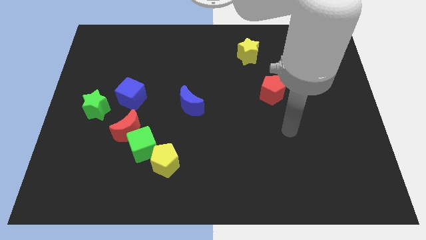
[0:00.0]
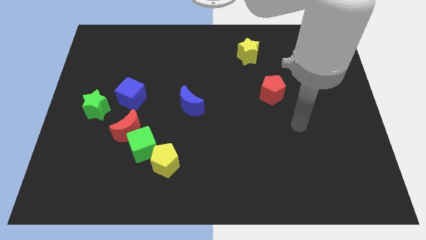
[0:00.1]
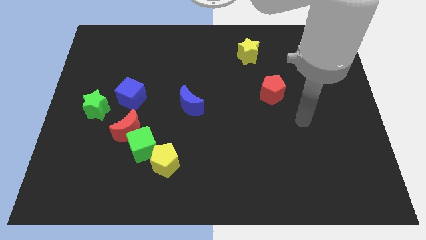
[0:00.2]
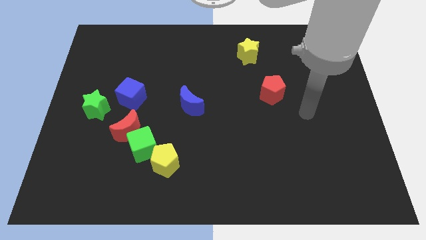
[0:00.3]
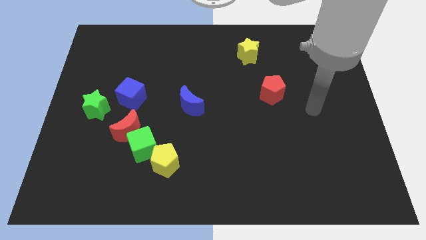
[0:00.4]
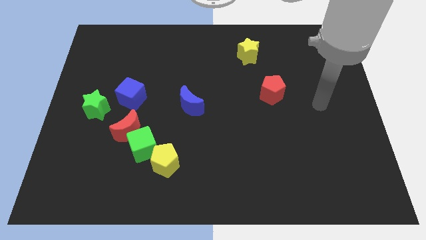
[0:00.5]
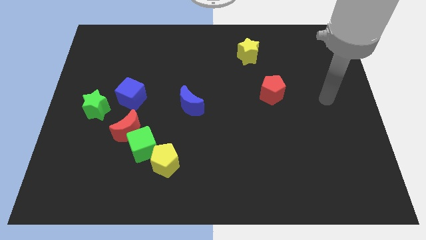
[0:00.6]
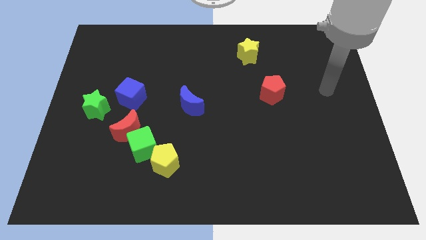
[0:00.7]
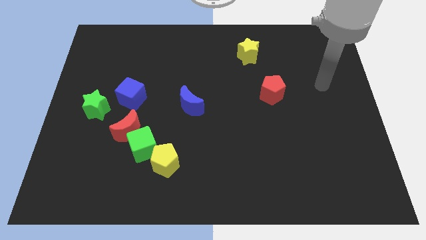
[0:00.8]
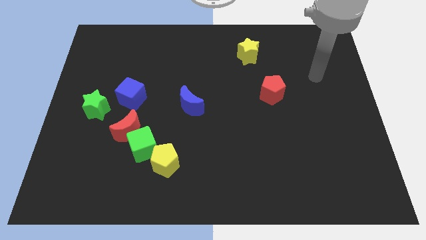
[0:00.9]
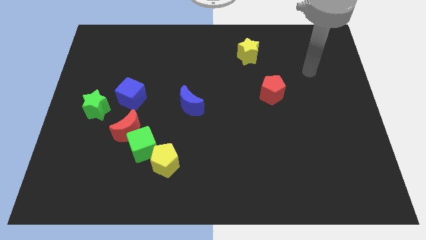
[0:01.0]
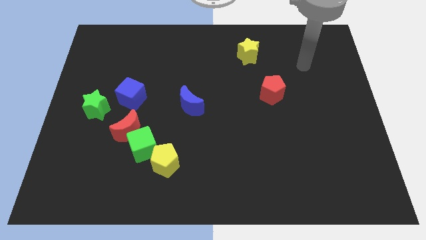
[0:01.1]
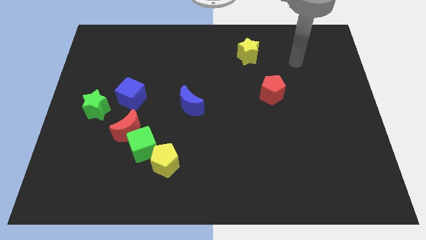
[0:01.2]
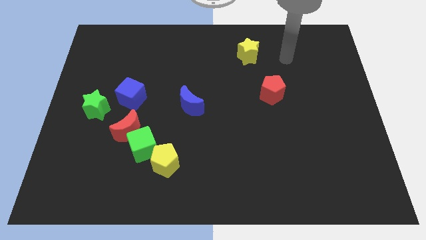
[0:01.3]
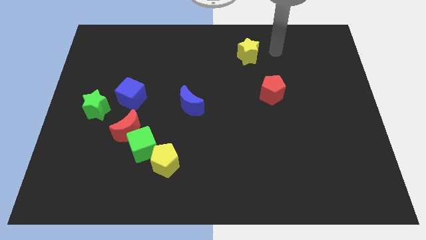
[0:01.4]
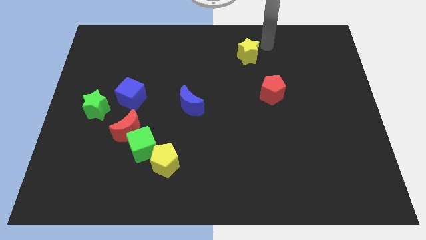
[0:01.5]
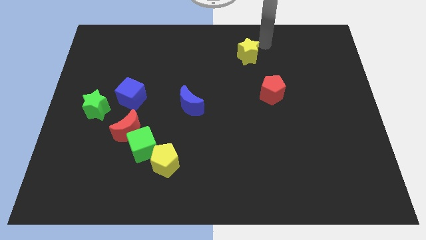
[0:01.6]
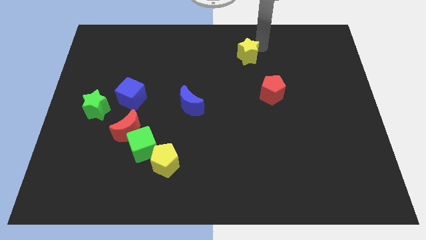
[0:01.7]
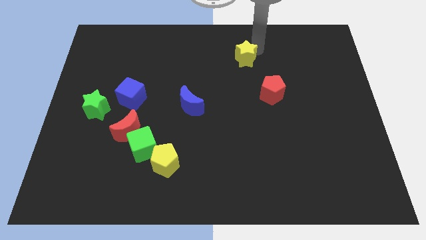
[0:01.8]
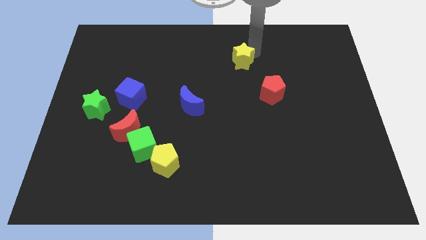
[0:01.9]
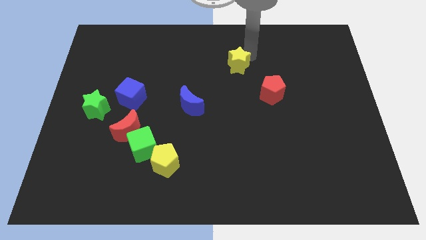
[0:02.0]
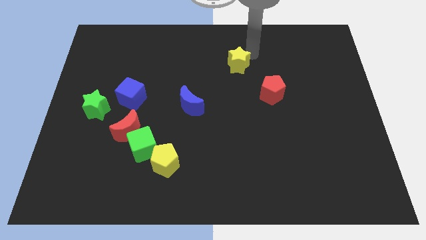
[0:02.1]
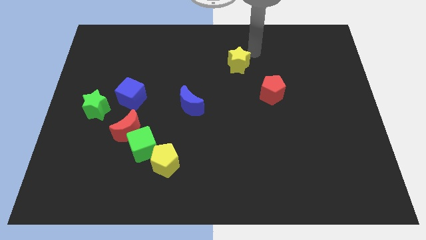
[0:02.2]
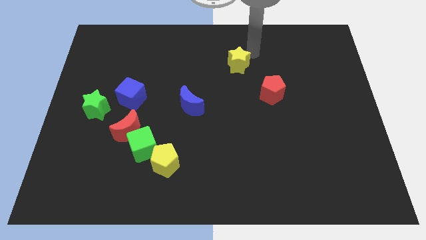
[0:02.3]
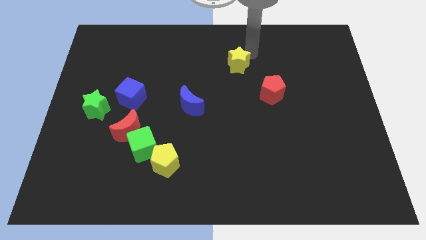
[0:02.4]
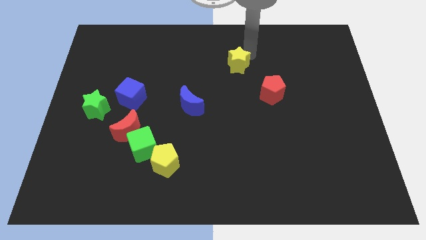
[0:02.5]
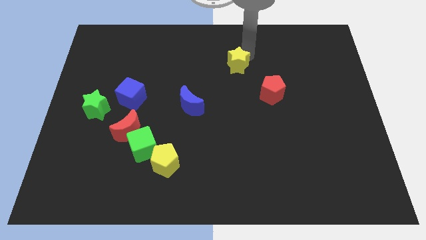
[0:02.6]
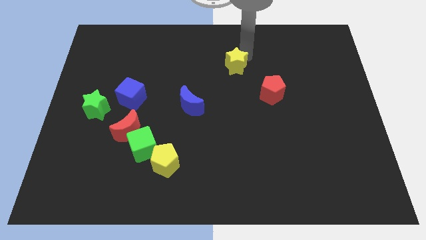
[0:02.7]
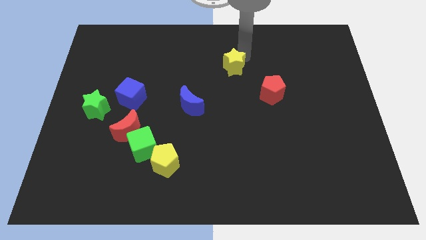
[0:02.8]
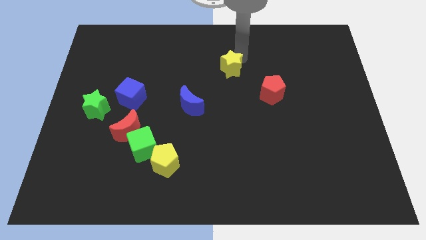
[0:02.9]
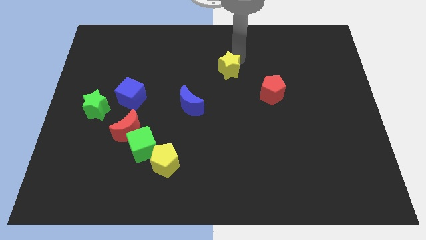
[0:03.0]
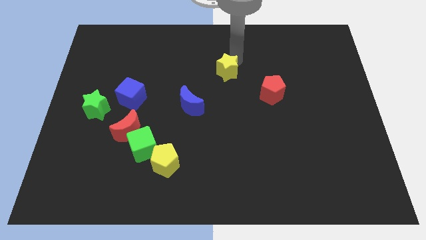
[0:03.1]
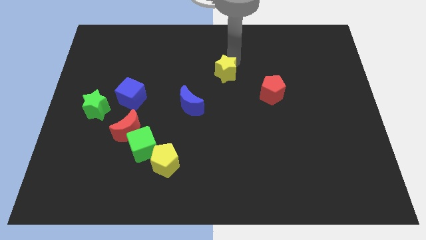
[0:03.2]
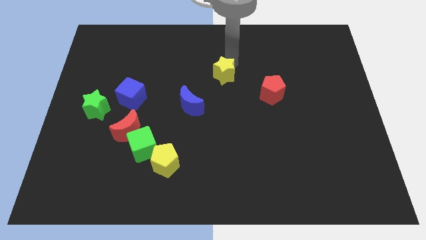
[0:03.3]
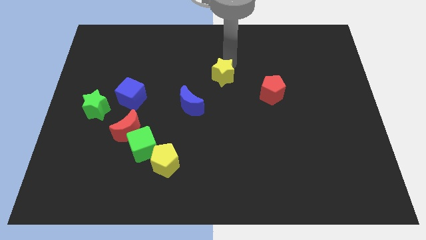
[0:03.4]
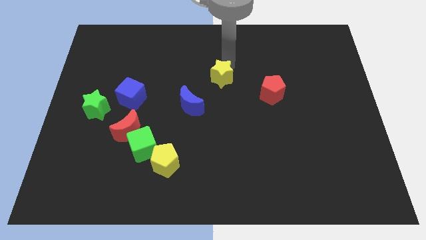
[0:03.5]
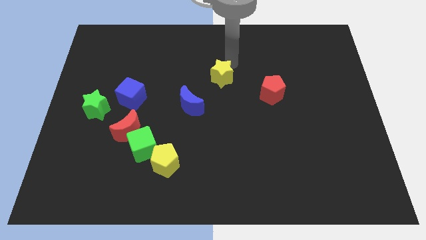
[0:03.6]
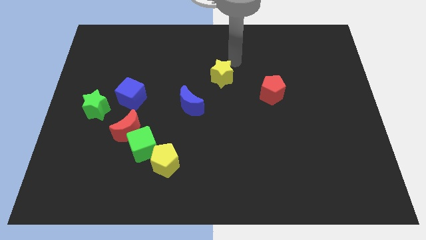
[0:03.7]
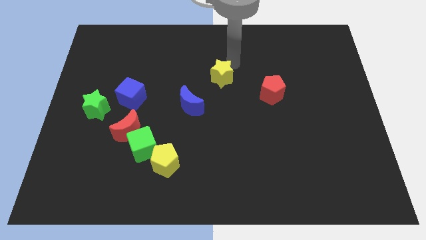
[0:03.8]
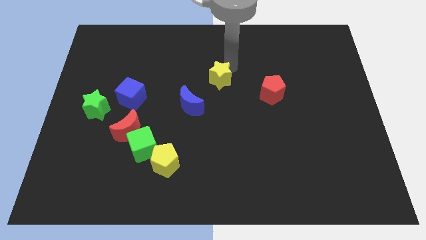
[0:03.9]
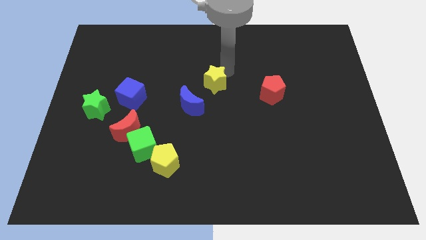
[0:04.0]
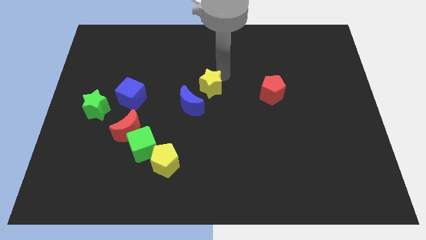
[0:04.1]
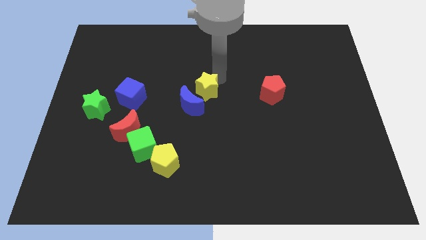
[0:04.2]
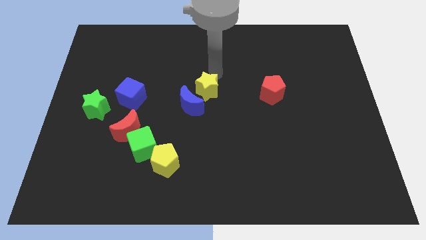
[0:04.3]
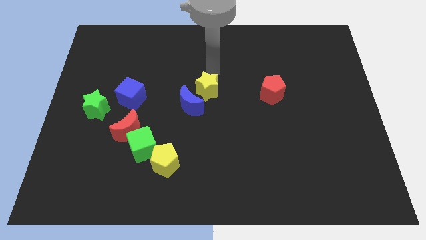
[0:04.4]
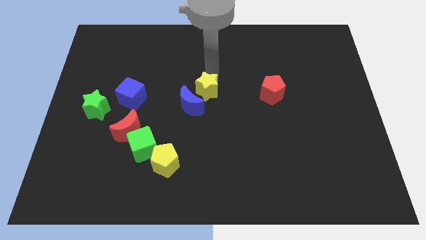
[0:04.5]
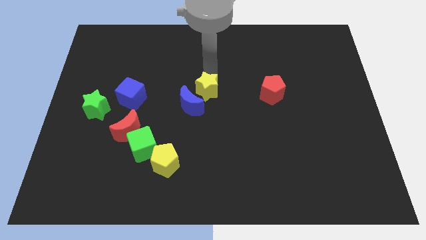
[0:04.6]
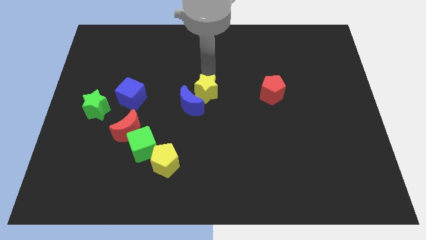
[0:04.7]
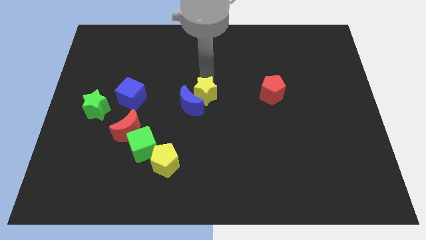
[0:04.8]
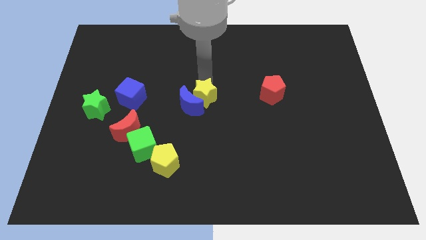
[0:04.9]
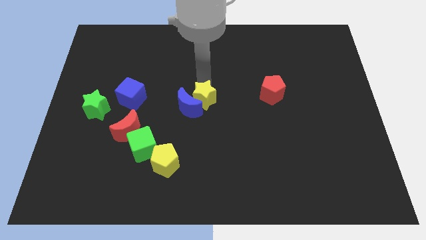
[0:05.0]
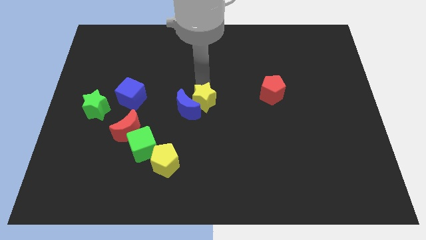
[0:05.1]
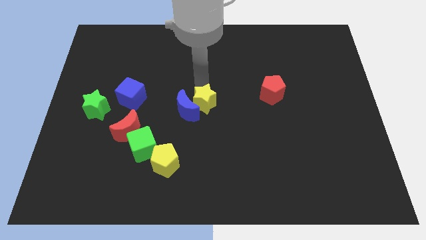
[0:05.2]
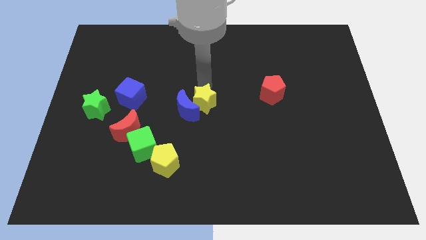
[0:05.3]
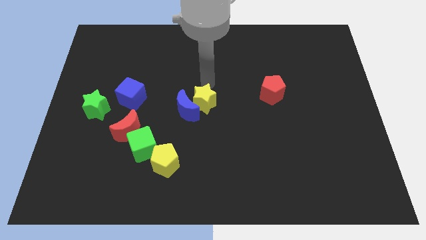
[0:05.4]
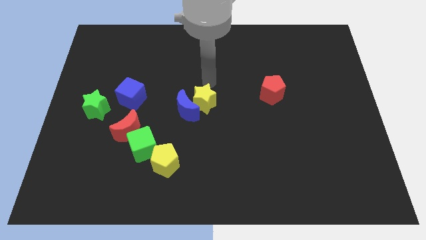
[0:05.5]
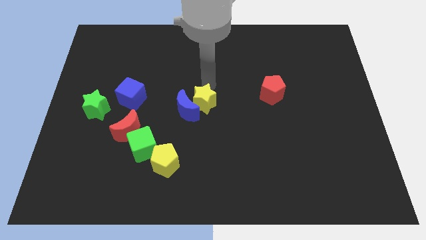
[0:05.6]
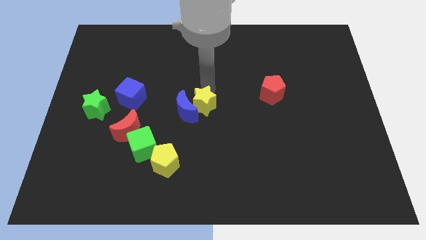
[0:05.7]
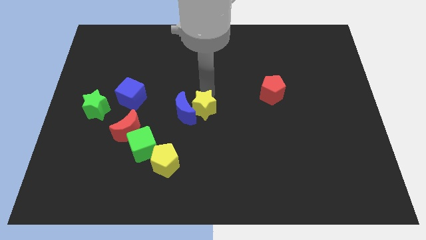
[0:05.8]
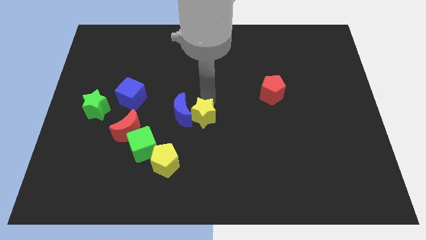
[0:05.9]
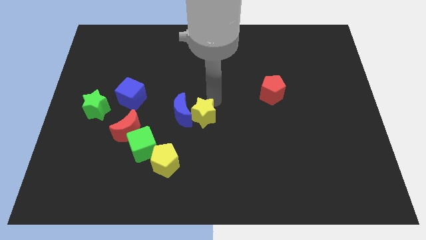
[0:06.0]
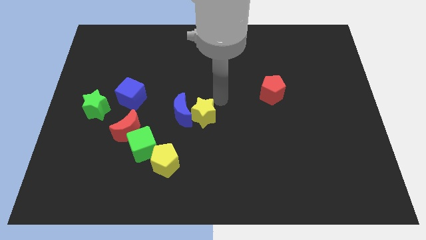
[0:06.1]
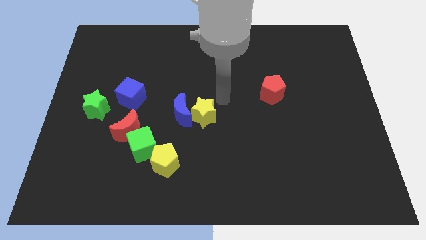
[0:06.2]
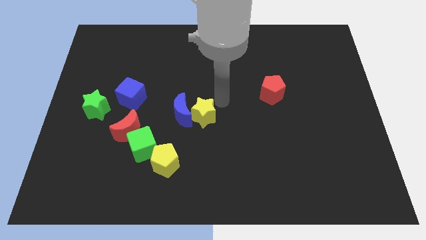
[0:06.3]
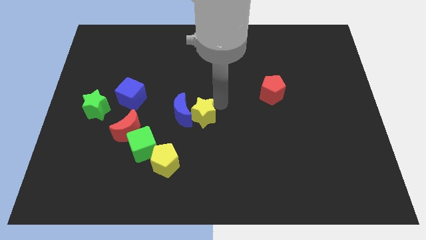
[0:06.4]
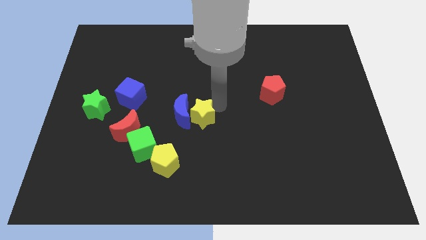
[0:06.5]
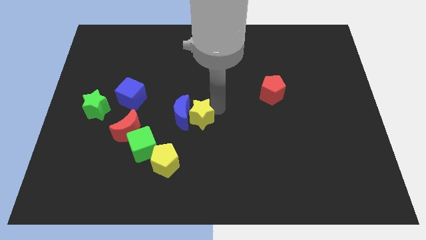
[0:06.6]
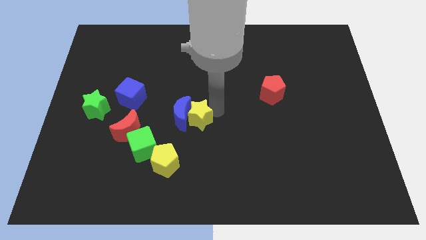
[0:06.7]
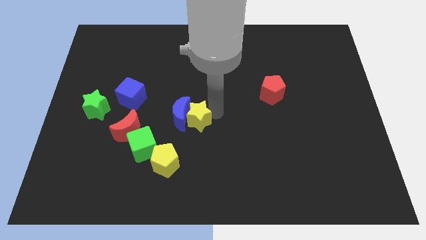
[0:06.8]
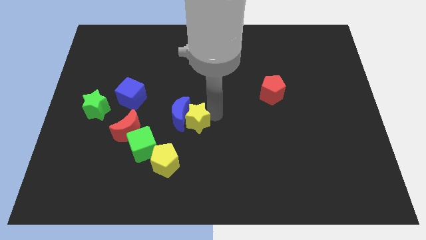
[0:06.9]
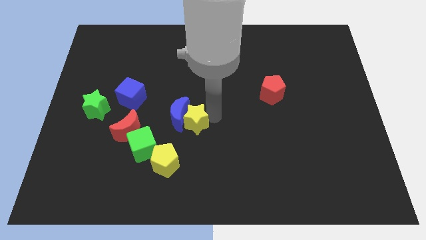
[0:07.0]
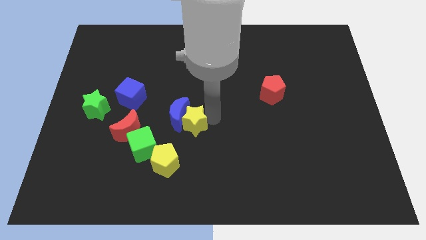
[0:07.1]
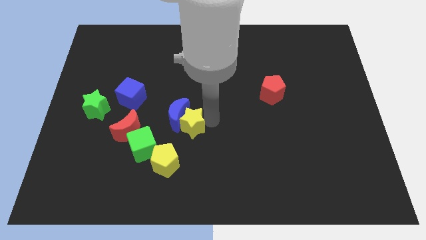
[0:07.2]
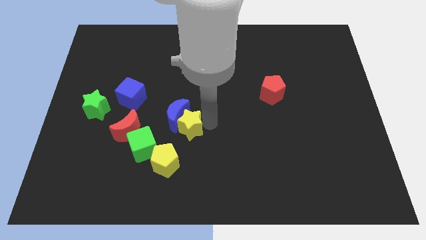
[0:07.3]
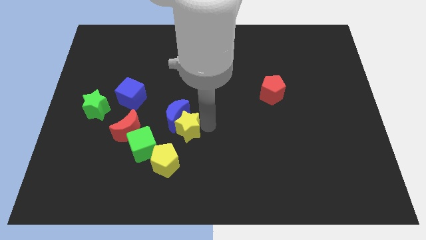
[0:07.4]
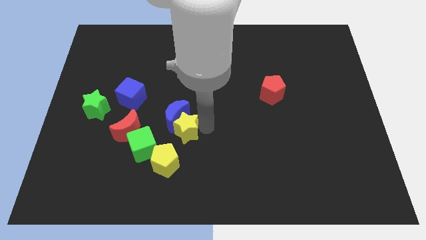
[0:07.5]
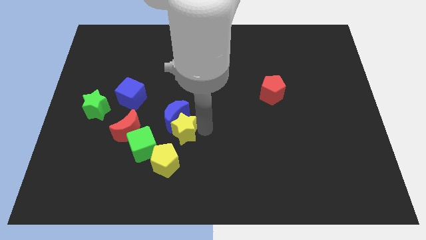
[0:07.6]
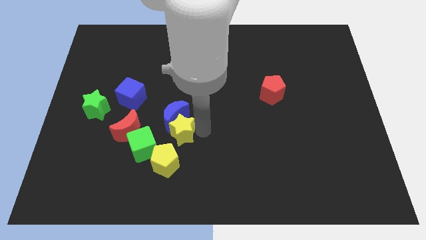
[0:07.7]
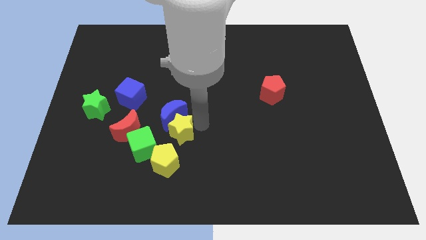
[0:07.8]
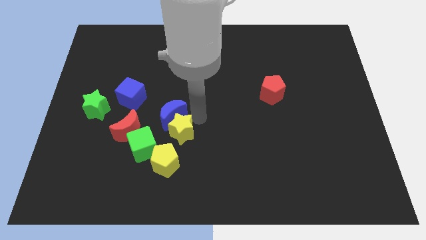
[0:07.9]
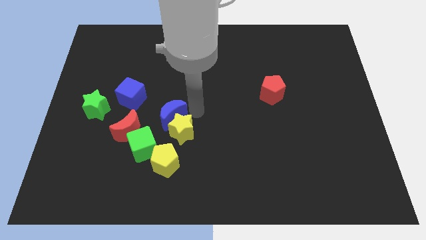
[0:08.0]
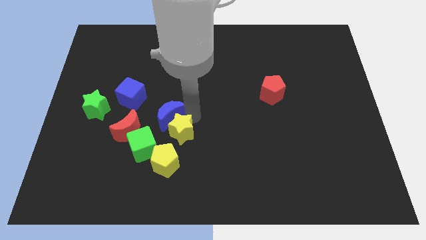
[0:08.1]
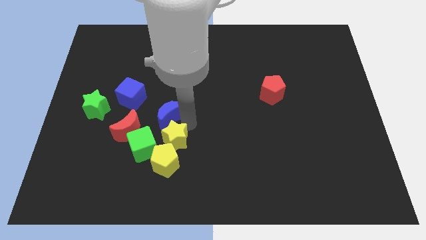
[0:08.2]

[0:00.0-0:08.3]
move the yellow star close to the yellow pentagon
